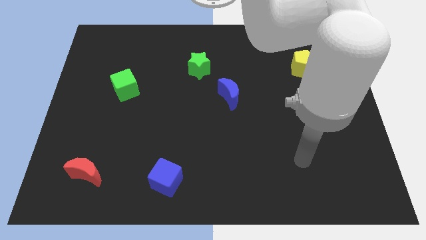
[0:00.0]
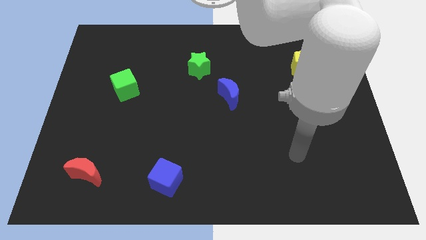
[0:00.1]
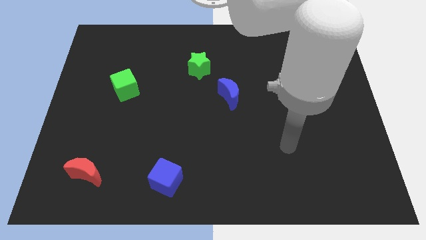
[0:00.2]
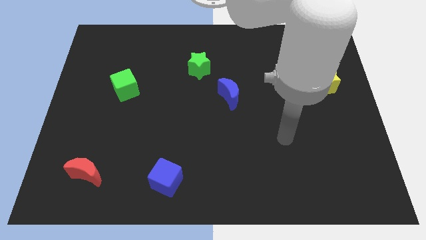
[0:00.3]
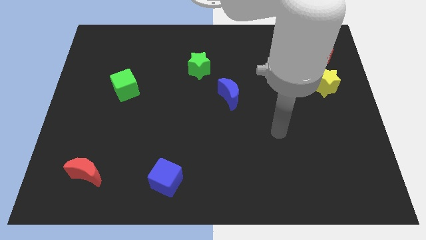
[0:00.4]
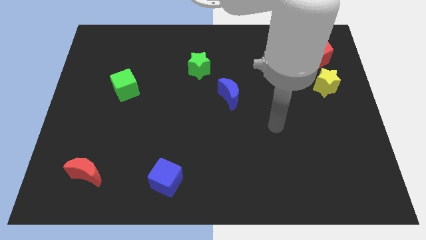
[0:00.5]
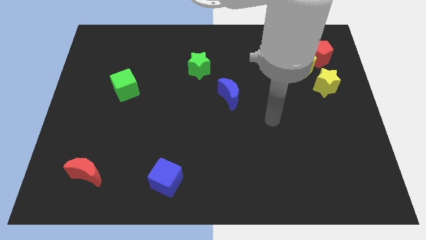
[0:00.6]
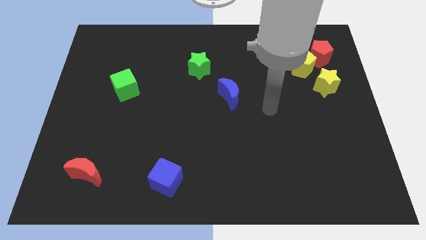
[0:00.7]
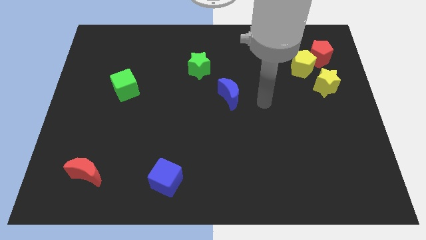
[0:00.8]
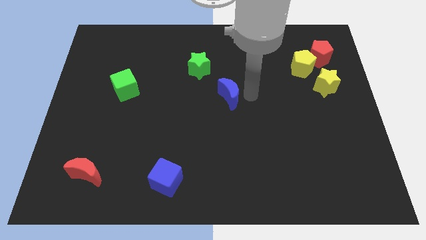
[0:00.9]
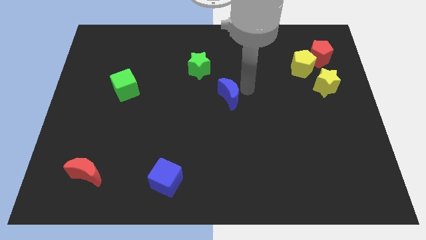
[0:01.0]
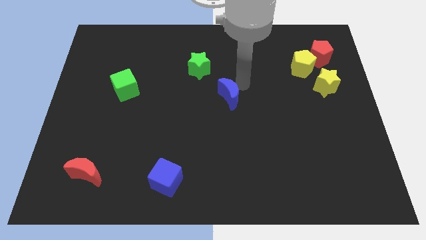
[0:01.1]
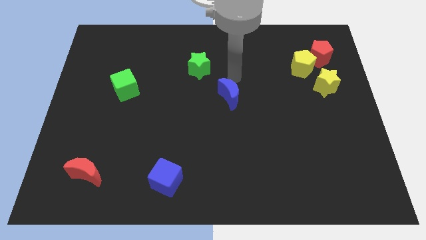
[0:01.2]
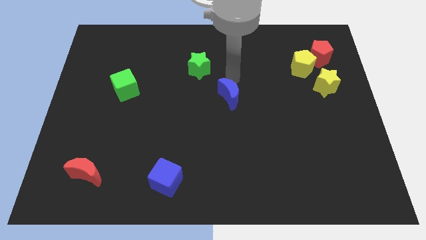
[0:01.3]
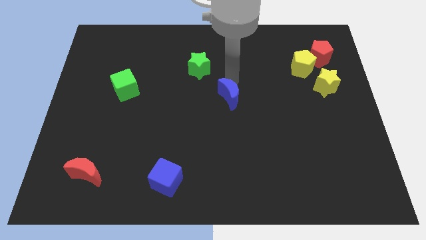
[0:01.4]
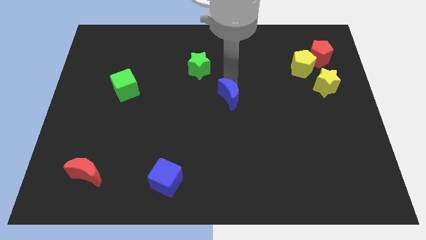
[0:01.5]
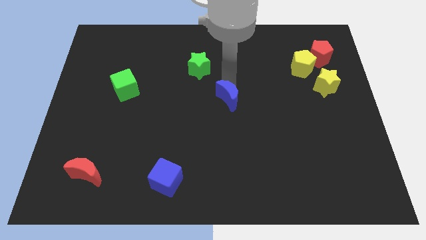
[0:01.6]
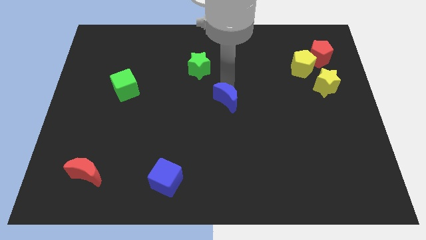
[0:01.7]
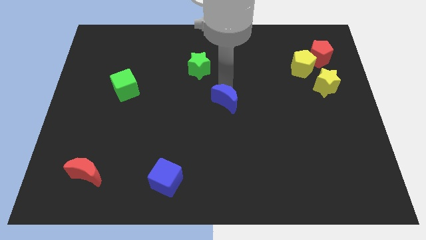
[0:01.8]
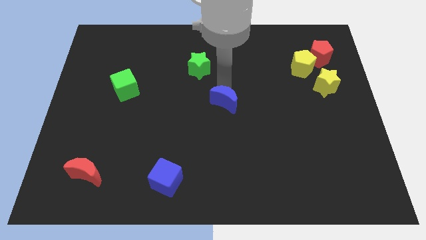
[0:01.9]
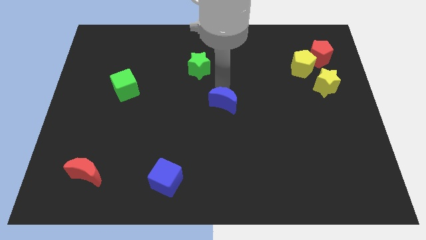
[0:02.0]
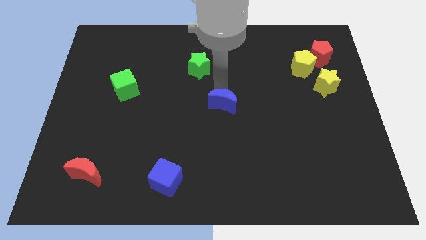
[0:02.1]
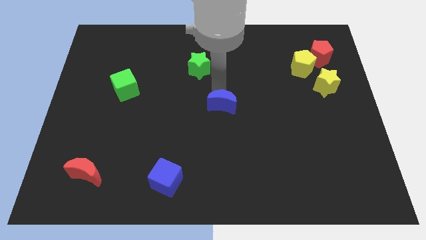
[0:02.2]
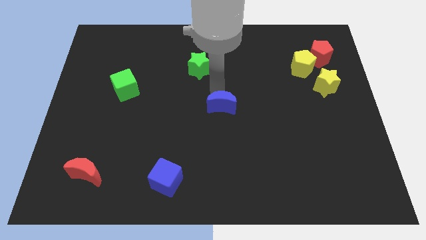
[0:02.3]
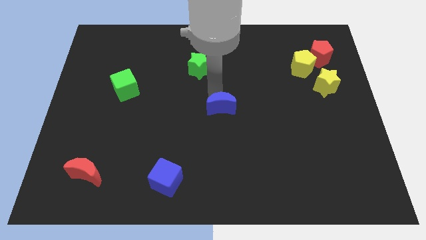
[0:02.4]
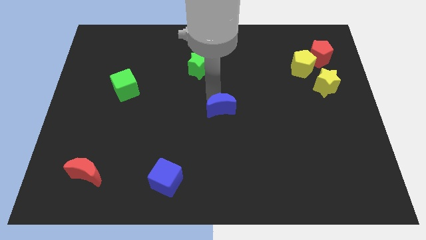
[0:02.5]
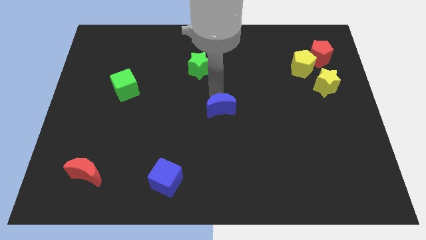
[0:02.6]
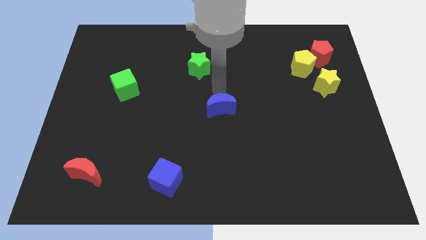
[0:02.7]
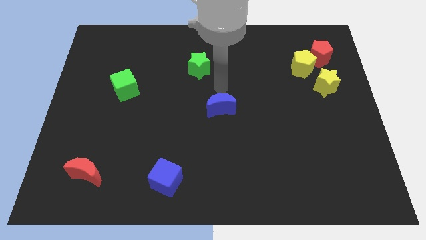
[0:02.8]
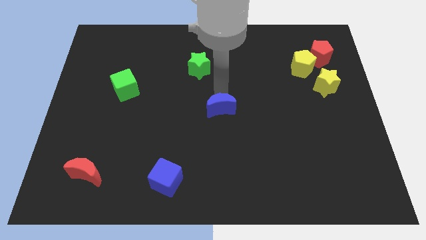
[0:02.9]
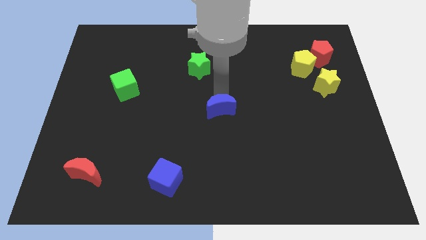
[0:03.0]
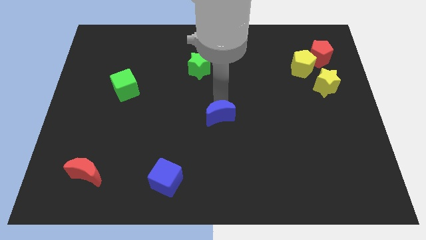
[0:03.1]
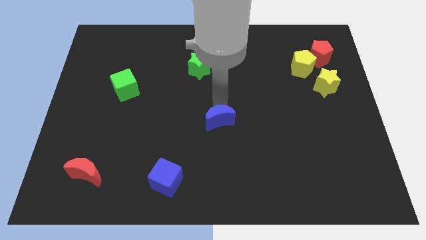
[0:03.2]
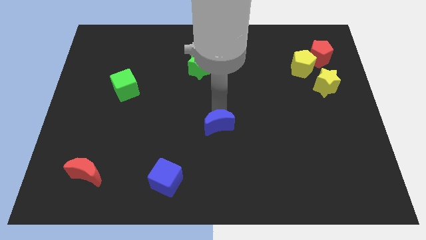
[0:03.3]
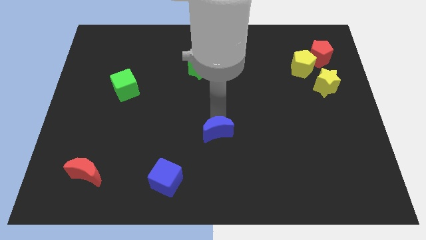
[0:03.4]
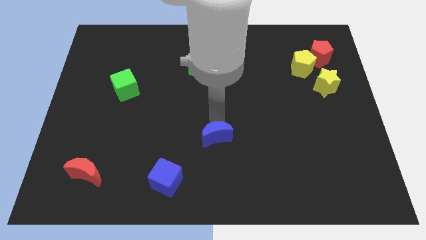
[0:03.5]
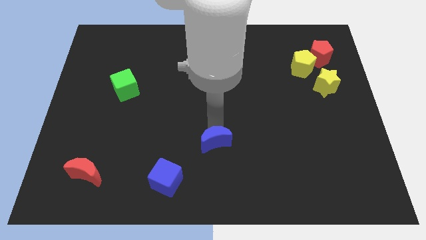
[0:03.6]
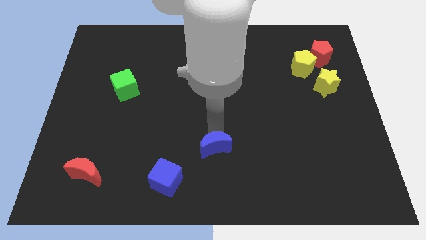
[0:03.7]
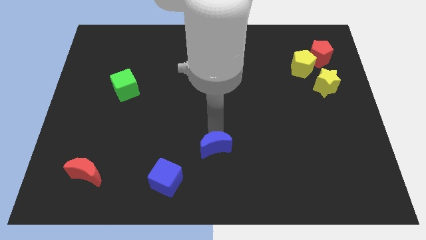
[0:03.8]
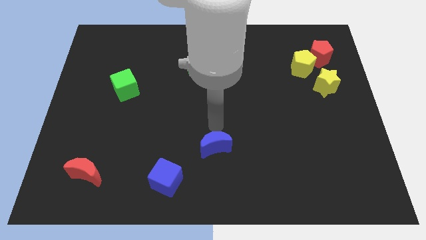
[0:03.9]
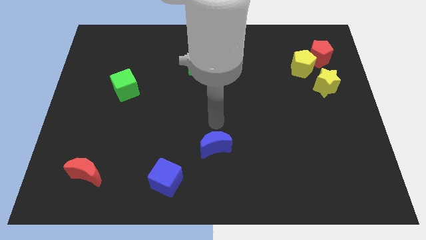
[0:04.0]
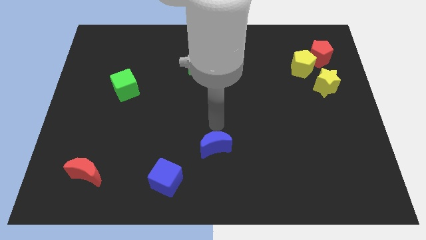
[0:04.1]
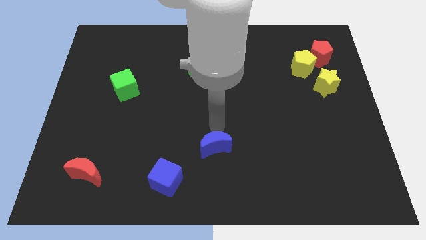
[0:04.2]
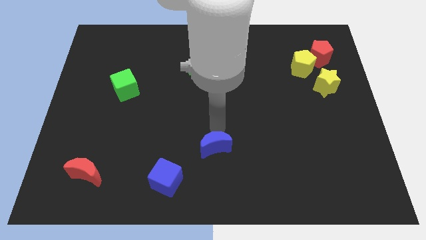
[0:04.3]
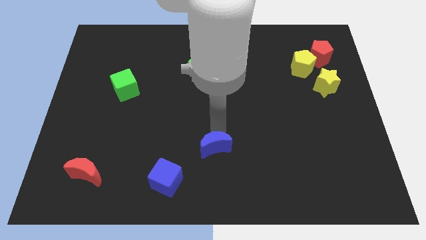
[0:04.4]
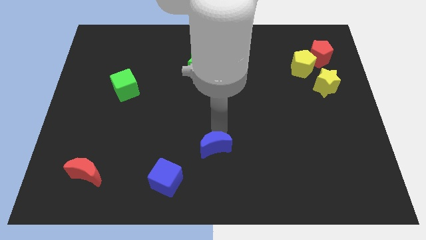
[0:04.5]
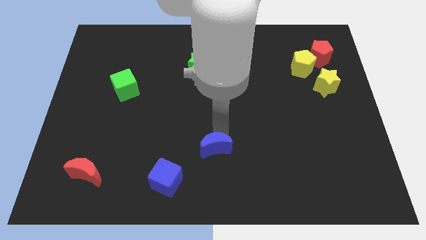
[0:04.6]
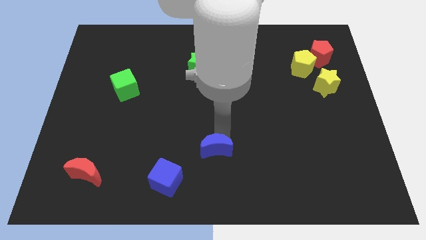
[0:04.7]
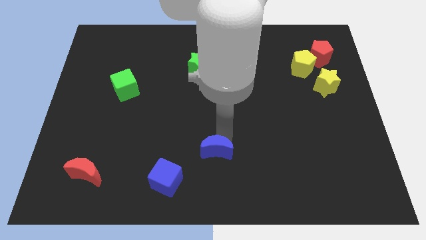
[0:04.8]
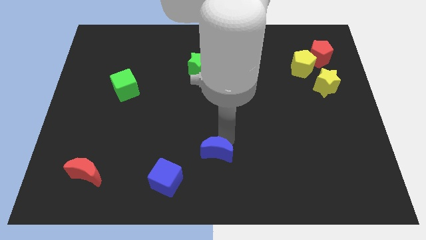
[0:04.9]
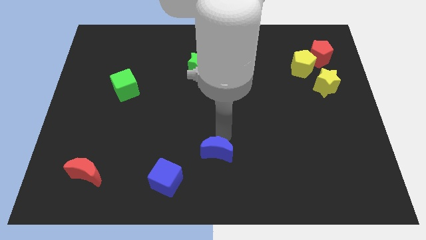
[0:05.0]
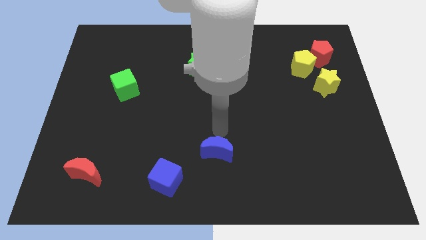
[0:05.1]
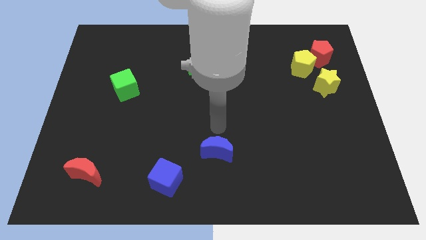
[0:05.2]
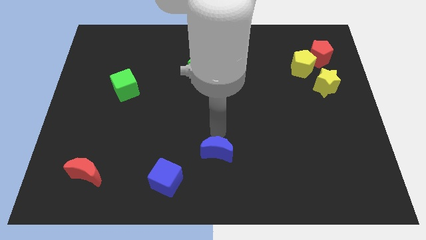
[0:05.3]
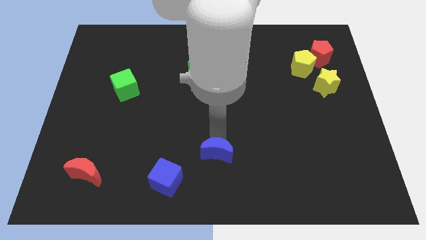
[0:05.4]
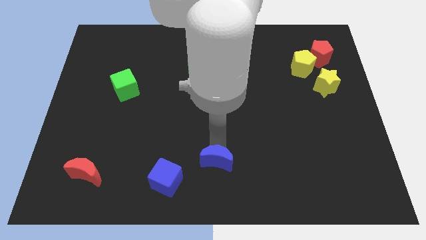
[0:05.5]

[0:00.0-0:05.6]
push the blue moon right of the blue cube

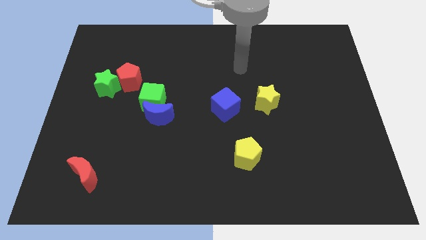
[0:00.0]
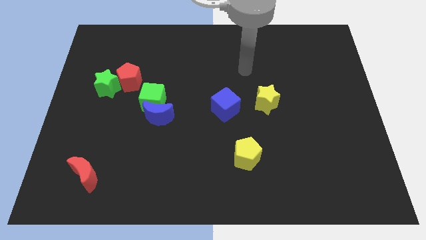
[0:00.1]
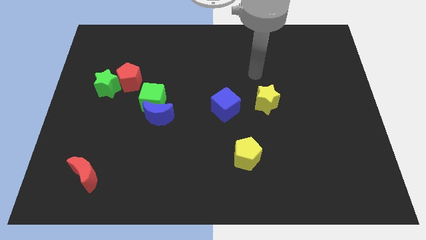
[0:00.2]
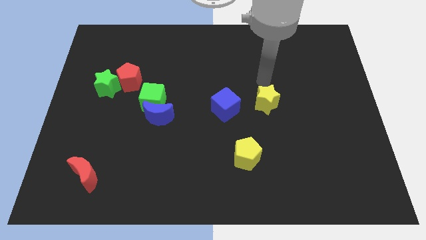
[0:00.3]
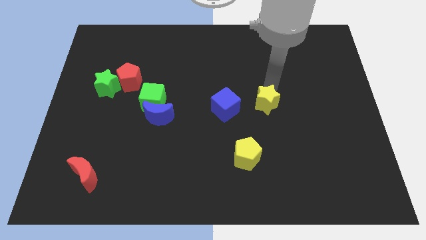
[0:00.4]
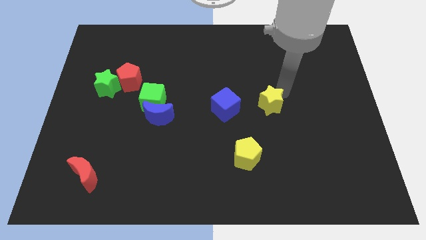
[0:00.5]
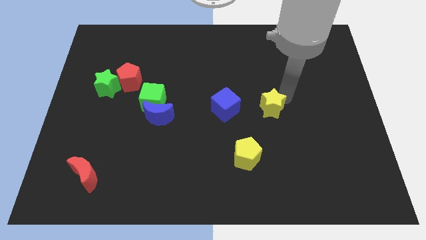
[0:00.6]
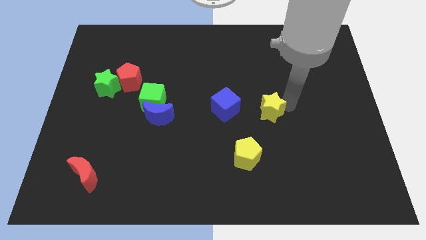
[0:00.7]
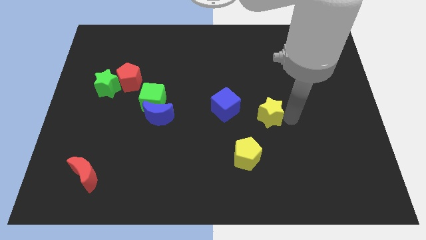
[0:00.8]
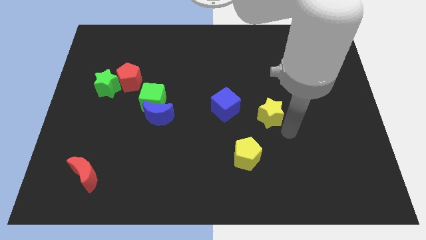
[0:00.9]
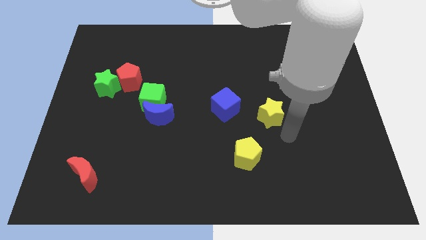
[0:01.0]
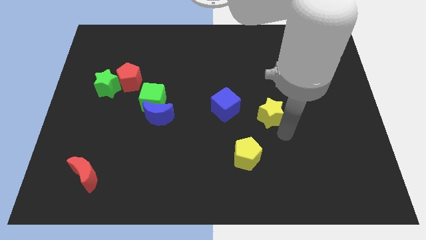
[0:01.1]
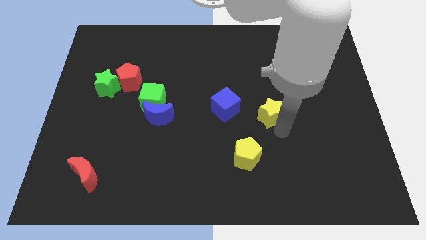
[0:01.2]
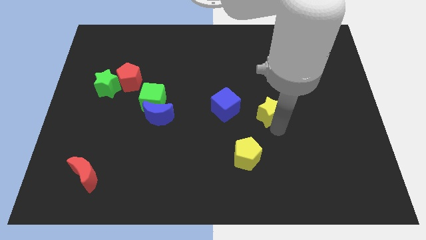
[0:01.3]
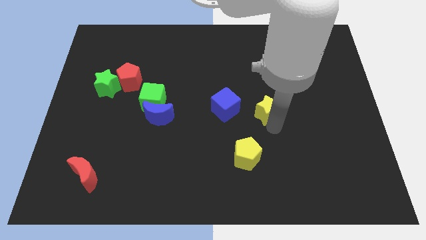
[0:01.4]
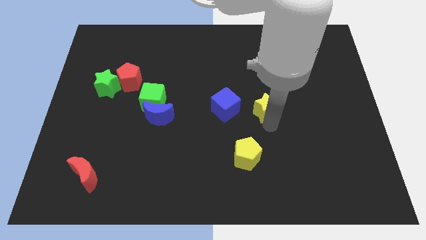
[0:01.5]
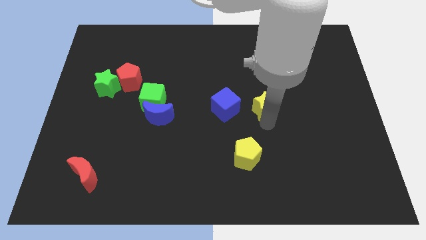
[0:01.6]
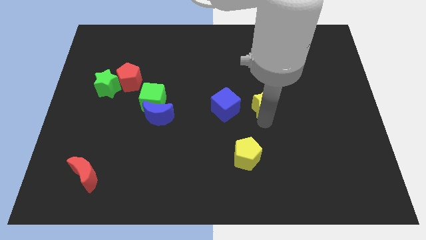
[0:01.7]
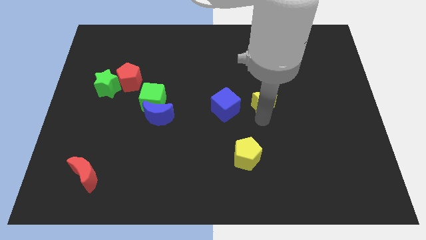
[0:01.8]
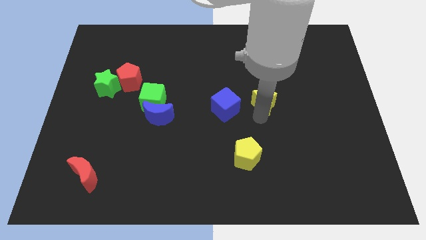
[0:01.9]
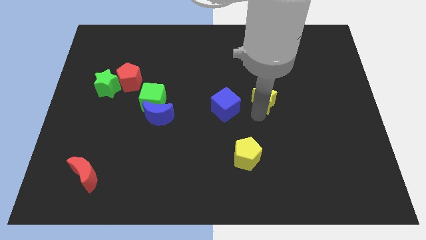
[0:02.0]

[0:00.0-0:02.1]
push the yellow star to the top right of the blue cube
